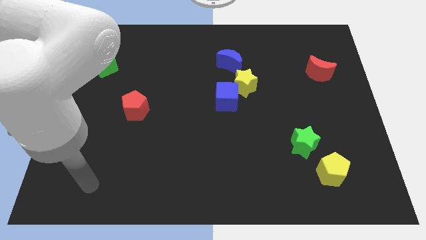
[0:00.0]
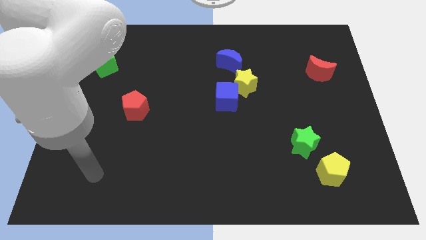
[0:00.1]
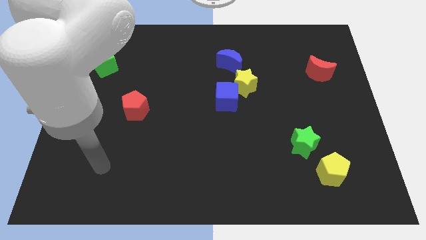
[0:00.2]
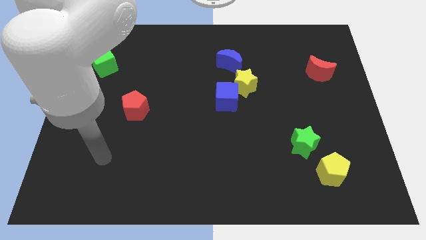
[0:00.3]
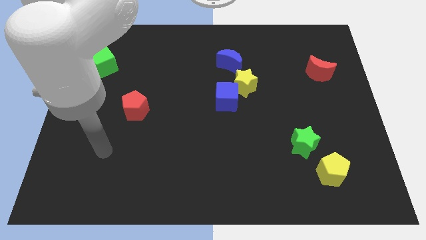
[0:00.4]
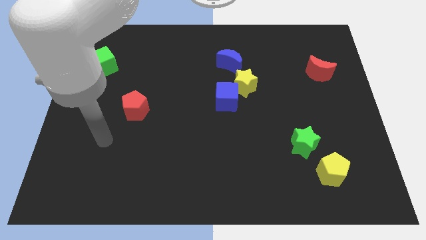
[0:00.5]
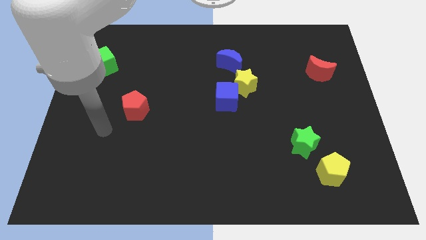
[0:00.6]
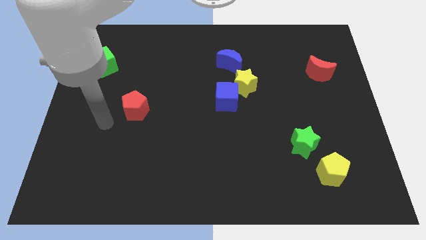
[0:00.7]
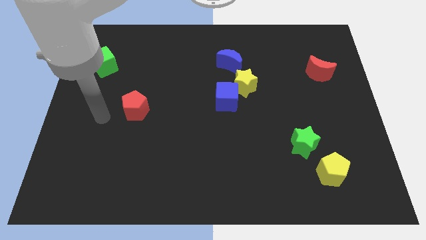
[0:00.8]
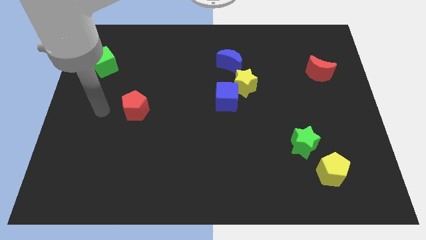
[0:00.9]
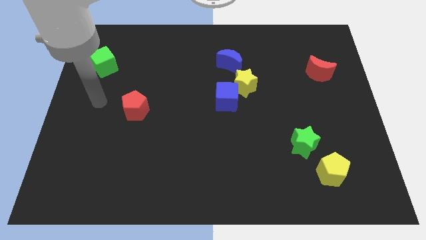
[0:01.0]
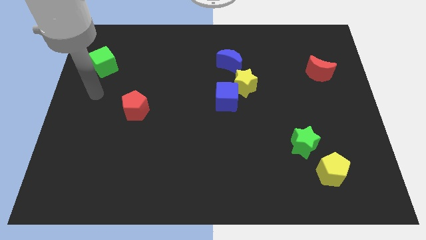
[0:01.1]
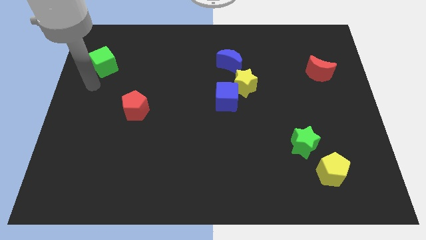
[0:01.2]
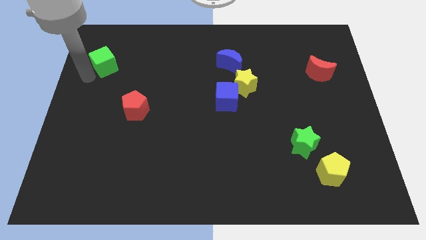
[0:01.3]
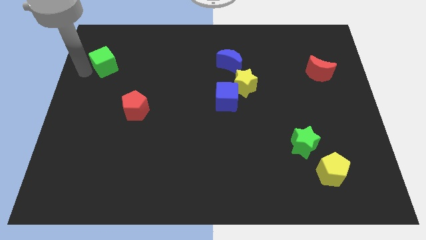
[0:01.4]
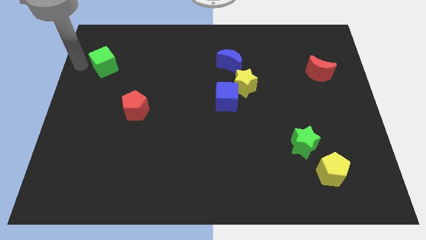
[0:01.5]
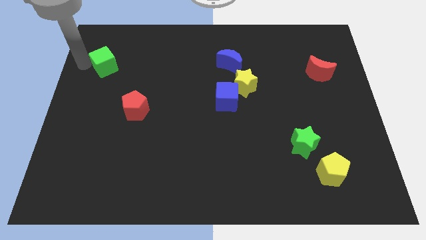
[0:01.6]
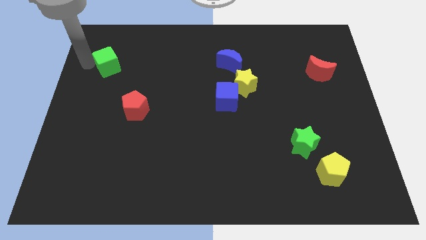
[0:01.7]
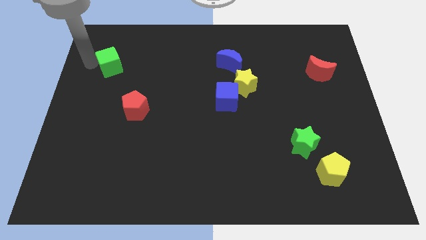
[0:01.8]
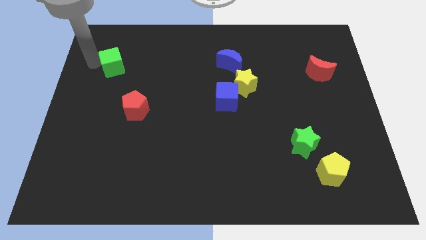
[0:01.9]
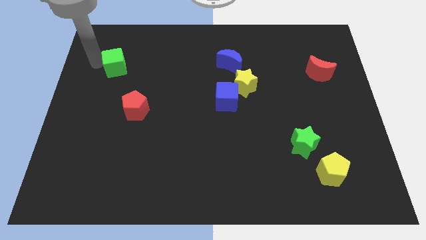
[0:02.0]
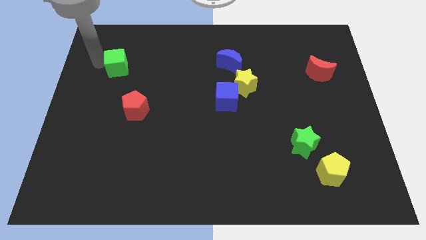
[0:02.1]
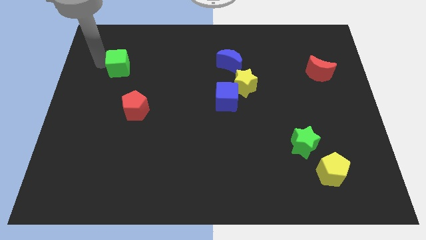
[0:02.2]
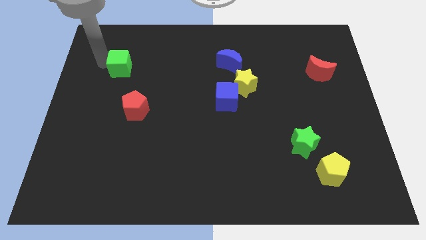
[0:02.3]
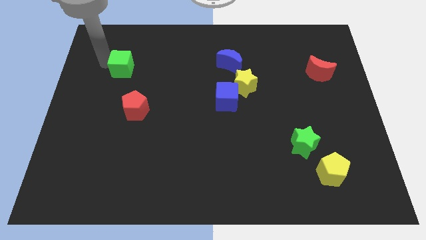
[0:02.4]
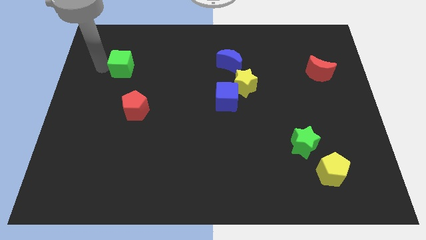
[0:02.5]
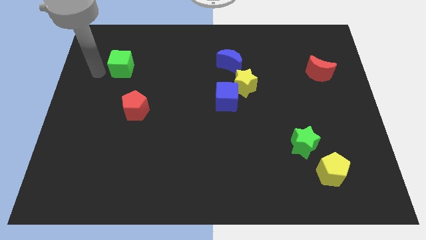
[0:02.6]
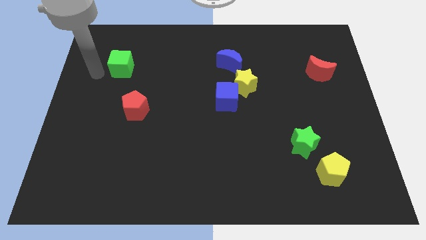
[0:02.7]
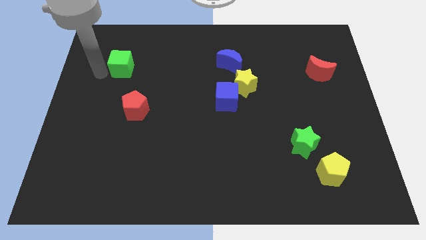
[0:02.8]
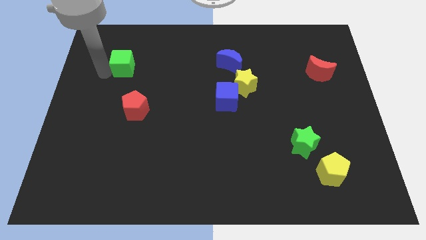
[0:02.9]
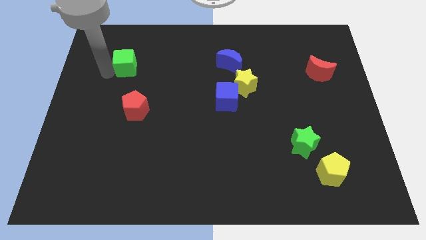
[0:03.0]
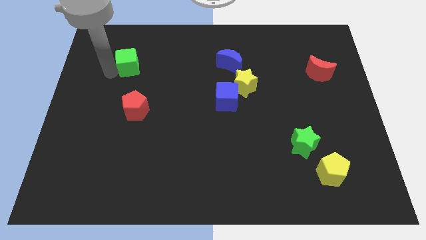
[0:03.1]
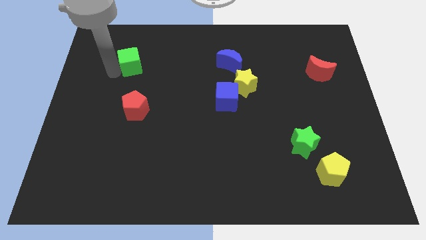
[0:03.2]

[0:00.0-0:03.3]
slightly move the green cube to the right

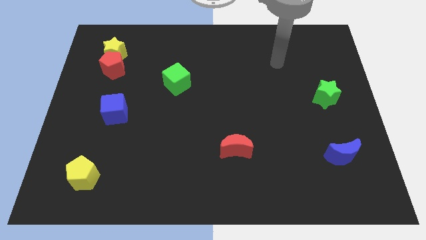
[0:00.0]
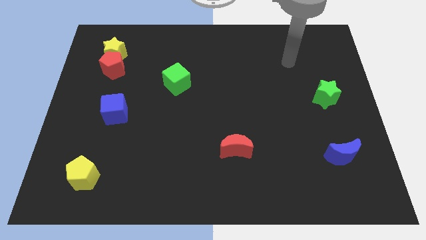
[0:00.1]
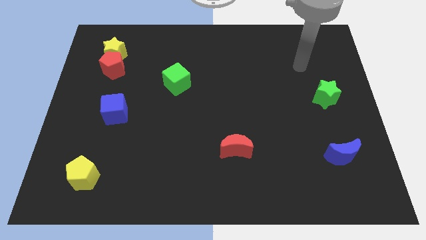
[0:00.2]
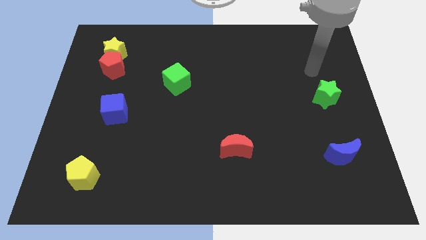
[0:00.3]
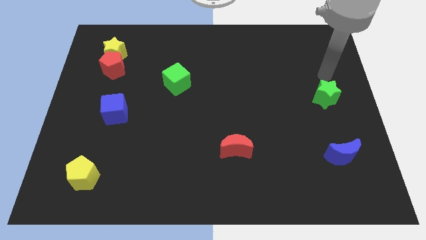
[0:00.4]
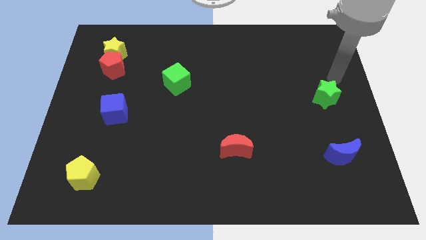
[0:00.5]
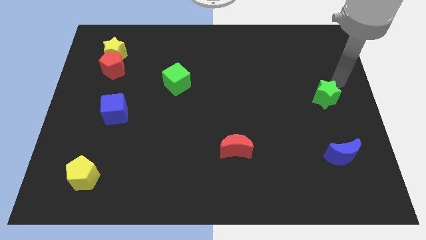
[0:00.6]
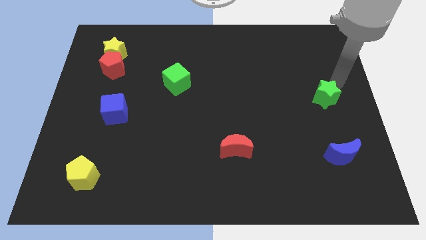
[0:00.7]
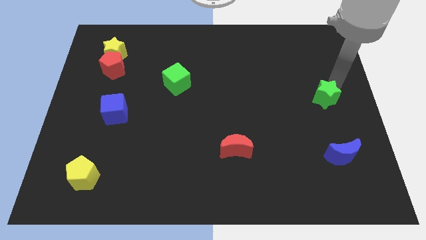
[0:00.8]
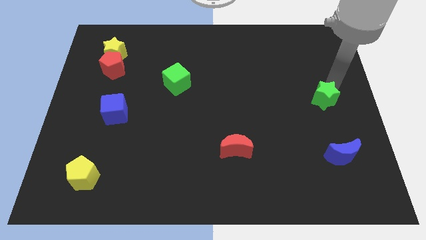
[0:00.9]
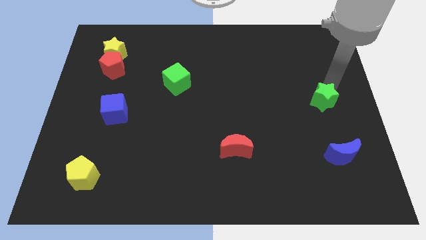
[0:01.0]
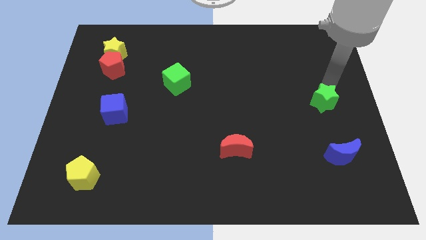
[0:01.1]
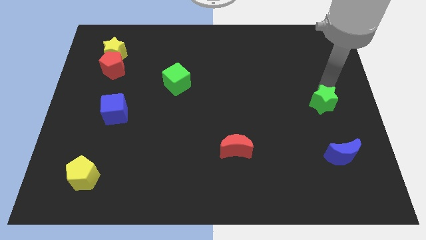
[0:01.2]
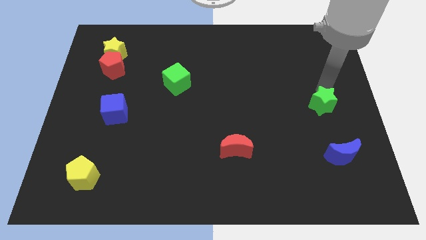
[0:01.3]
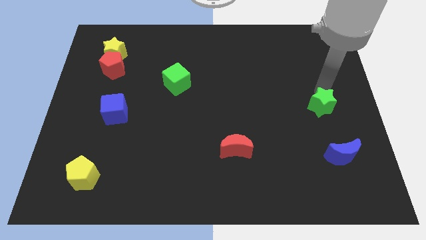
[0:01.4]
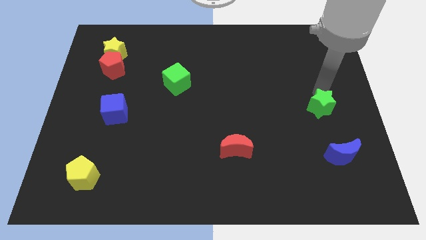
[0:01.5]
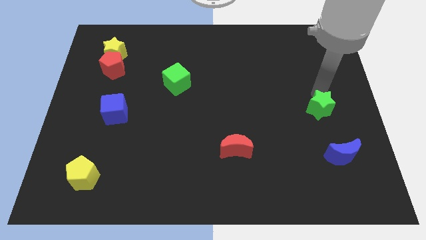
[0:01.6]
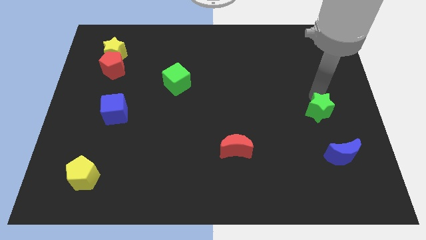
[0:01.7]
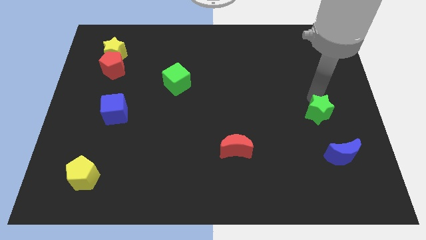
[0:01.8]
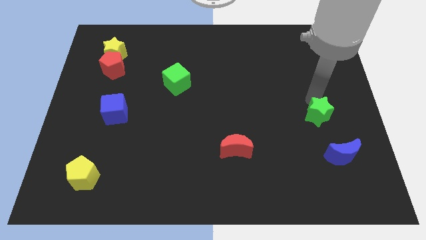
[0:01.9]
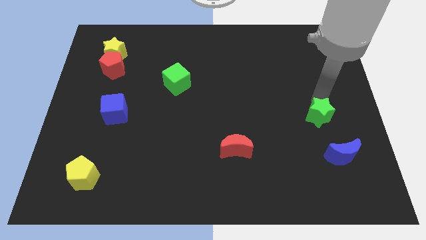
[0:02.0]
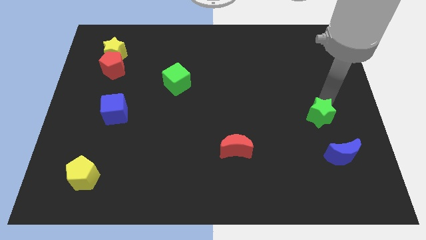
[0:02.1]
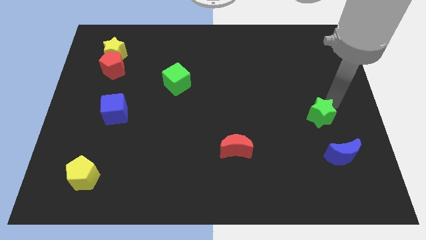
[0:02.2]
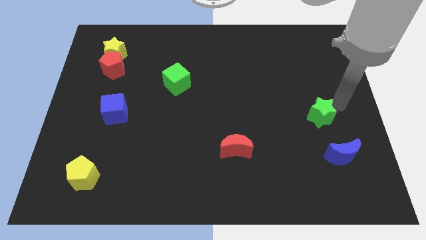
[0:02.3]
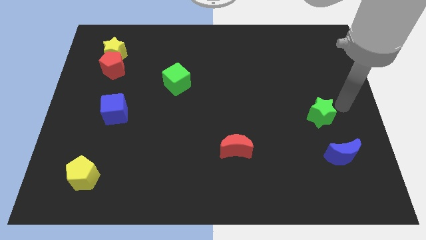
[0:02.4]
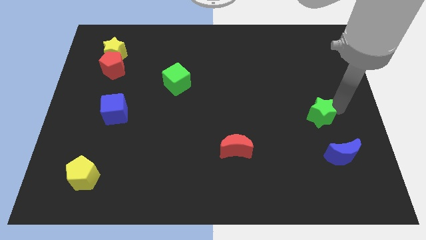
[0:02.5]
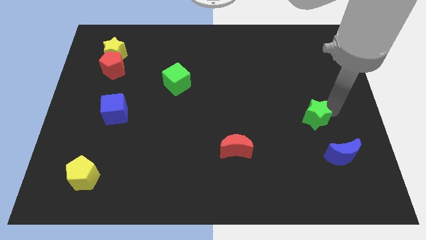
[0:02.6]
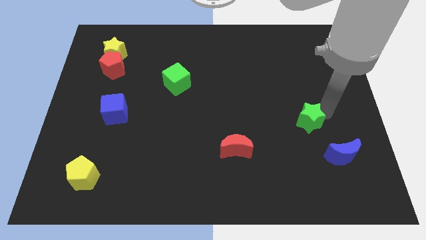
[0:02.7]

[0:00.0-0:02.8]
slightly push the green star downwards and then left

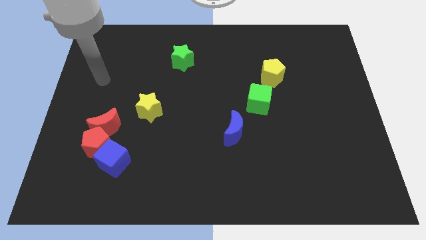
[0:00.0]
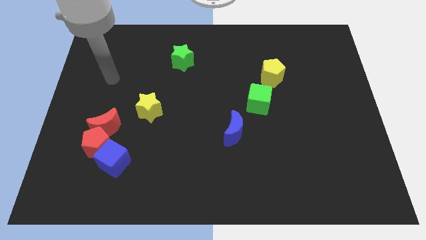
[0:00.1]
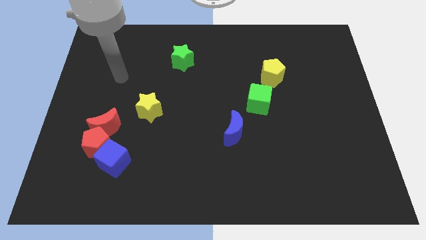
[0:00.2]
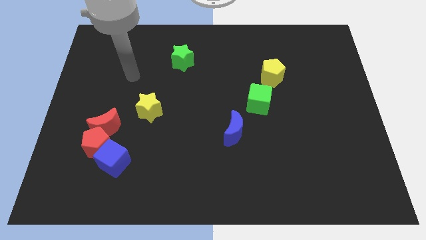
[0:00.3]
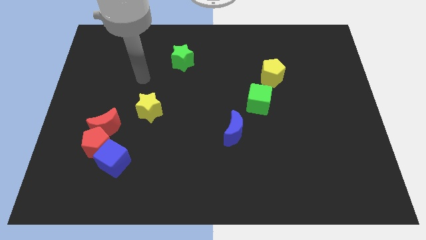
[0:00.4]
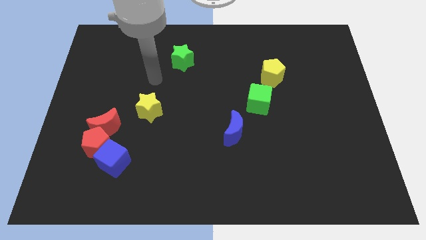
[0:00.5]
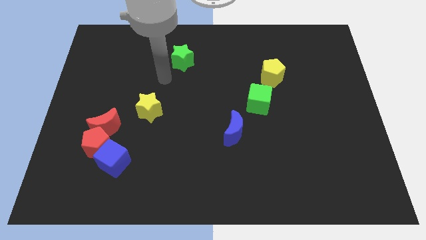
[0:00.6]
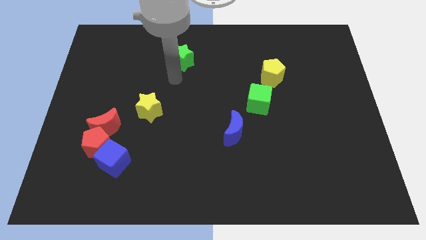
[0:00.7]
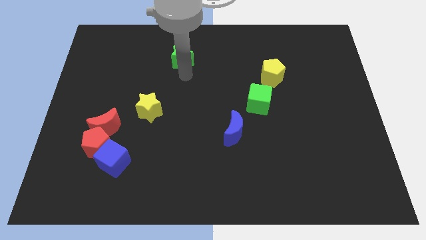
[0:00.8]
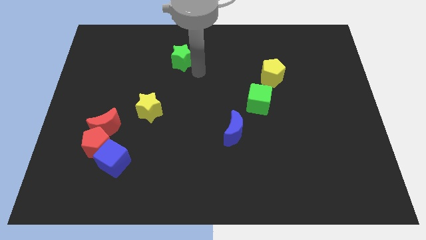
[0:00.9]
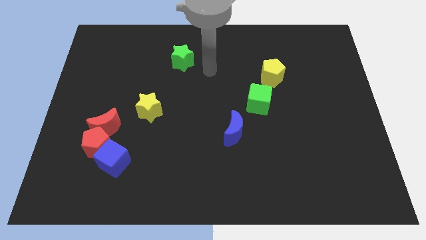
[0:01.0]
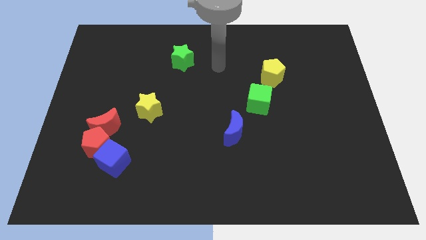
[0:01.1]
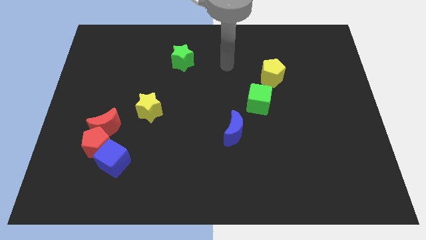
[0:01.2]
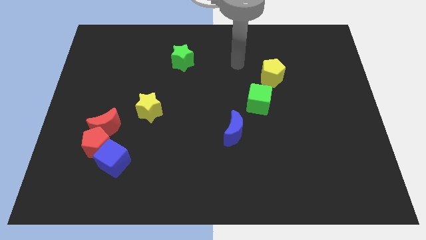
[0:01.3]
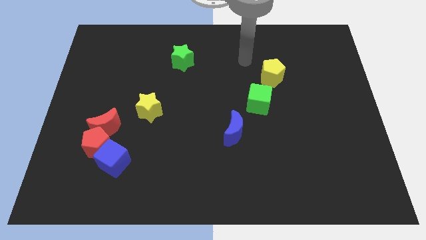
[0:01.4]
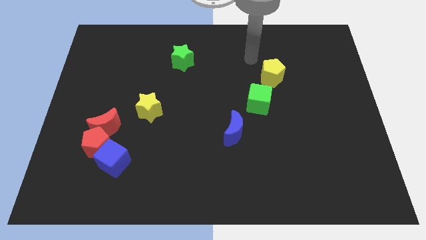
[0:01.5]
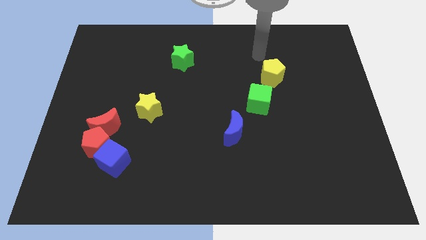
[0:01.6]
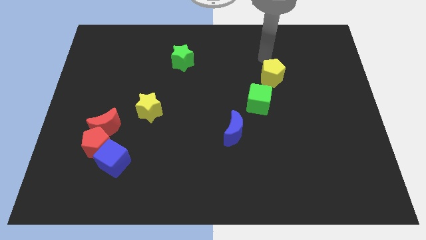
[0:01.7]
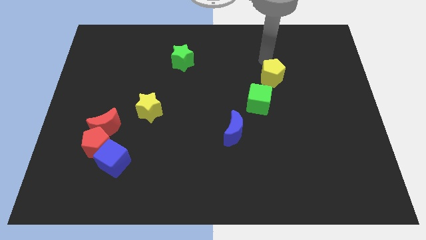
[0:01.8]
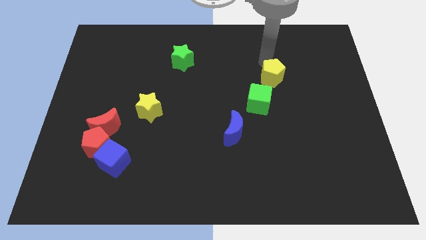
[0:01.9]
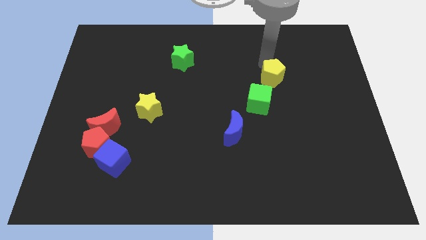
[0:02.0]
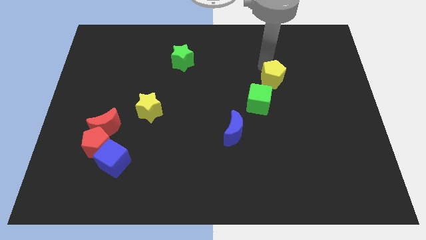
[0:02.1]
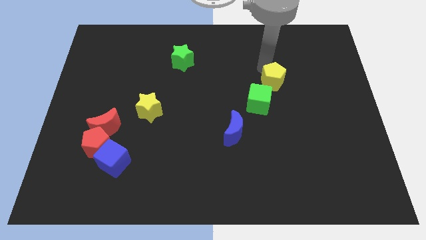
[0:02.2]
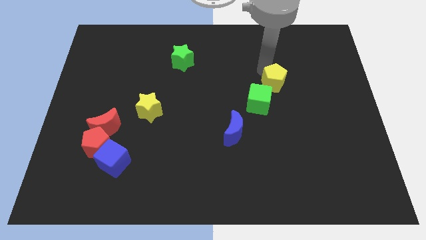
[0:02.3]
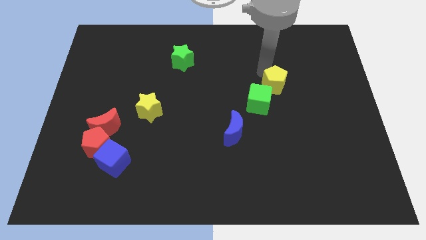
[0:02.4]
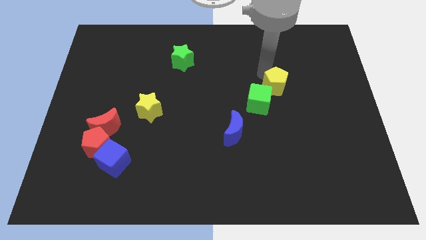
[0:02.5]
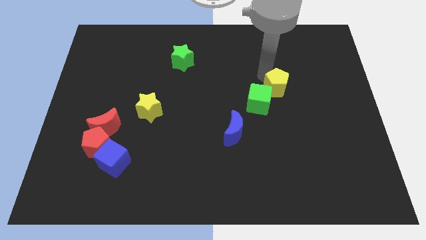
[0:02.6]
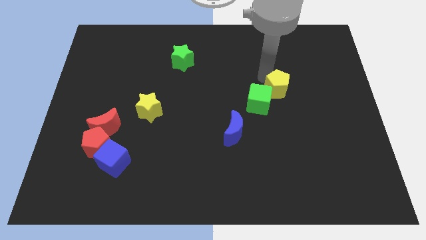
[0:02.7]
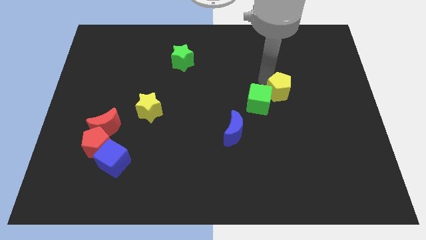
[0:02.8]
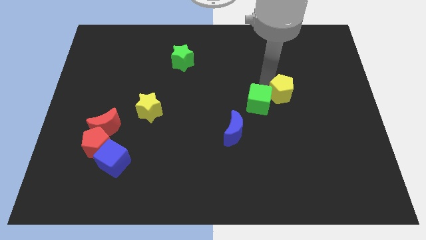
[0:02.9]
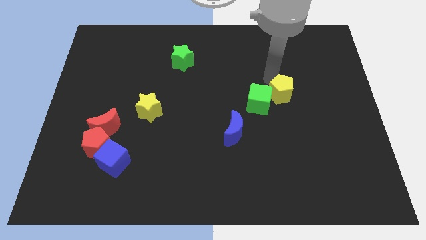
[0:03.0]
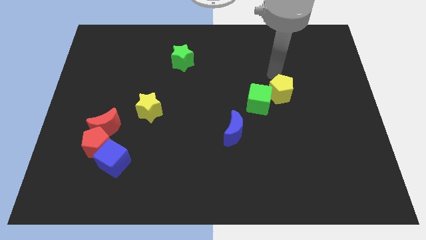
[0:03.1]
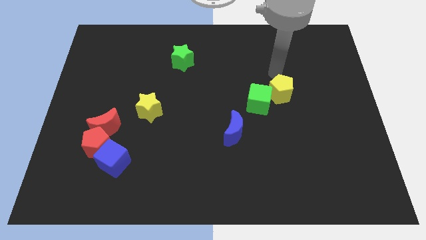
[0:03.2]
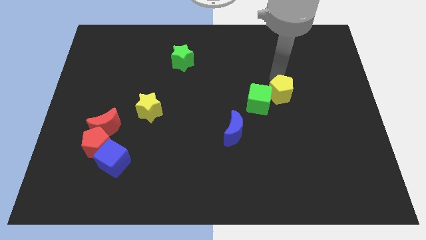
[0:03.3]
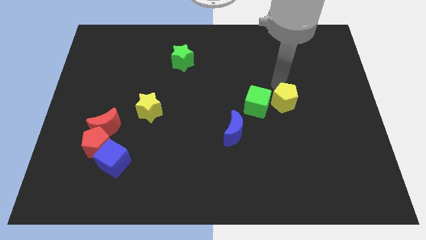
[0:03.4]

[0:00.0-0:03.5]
push the yellow pentagon a little bit downwards
